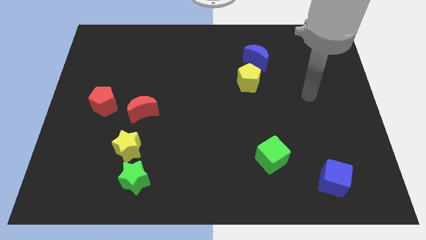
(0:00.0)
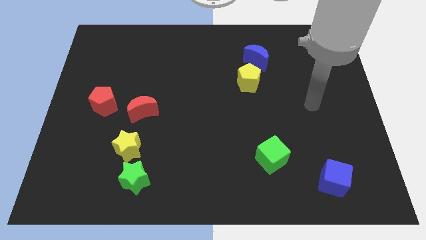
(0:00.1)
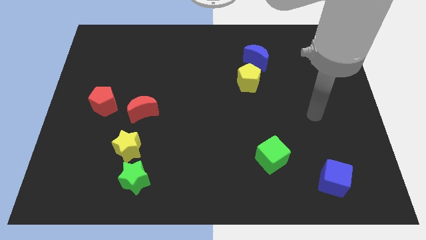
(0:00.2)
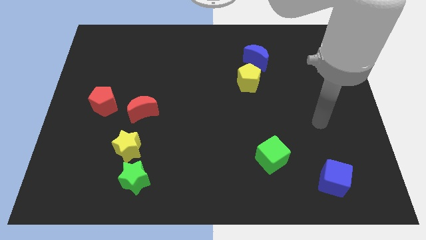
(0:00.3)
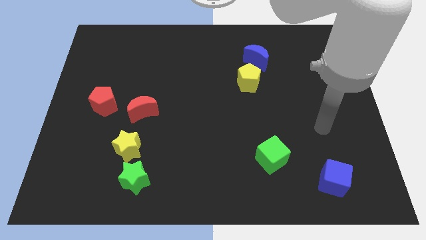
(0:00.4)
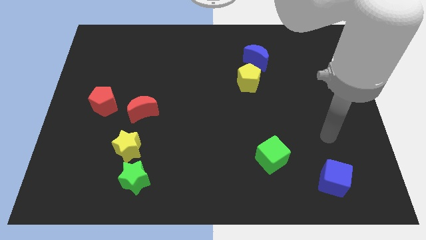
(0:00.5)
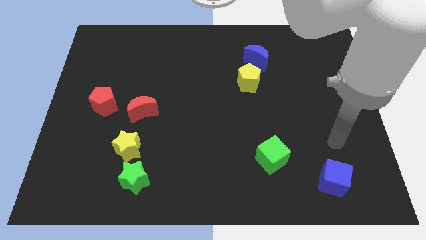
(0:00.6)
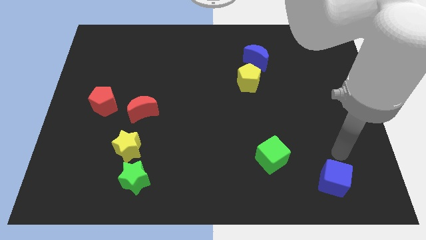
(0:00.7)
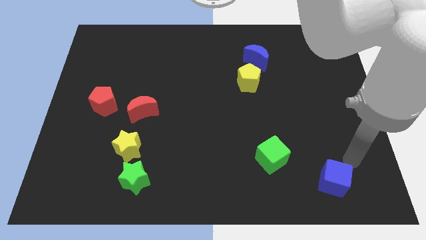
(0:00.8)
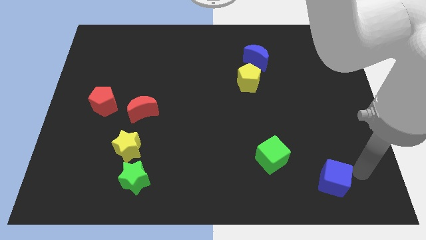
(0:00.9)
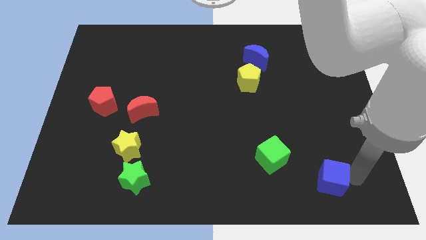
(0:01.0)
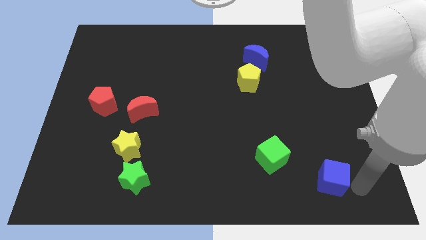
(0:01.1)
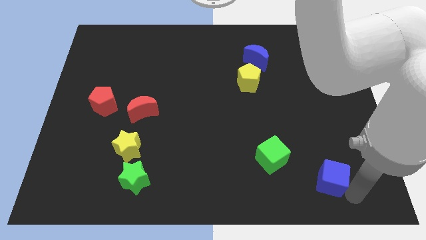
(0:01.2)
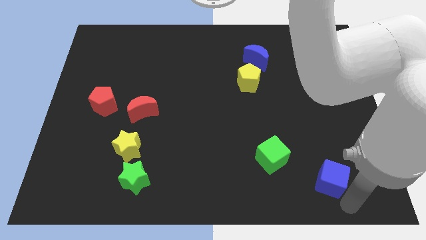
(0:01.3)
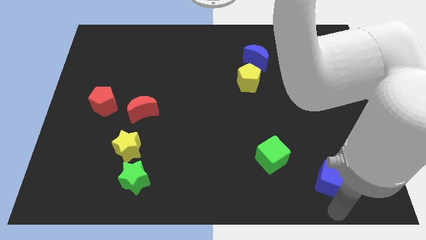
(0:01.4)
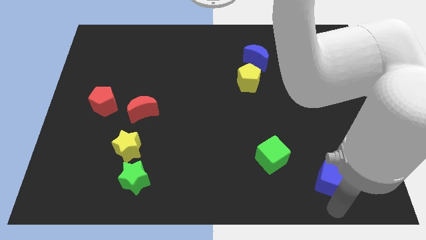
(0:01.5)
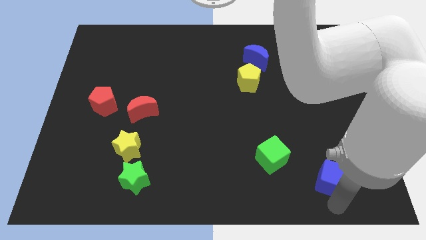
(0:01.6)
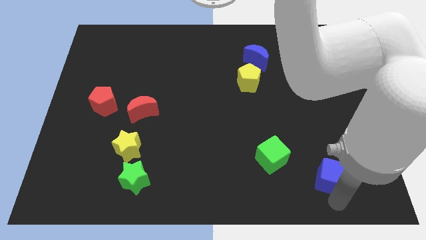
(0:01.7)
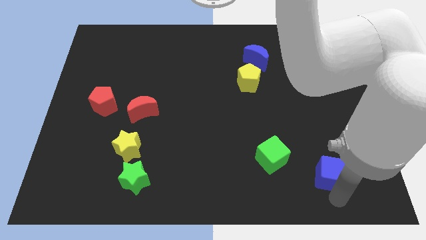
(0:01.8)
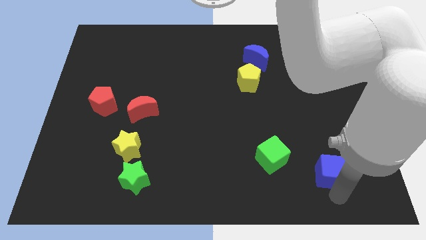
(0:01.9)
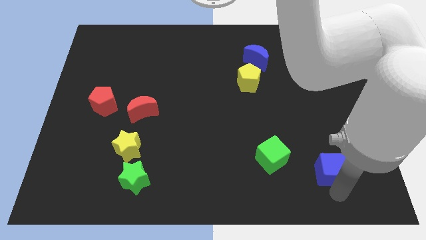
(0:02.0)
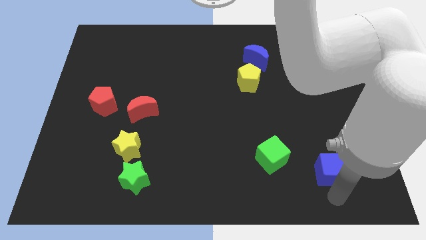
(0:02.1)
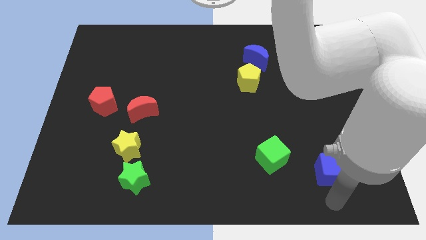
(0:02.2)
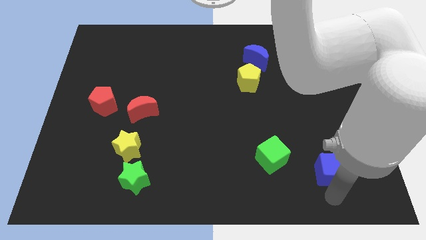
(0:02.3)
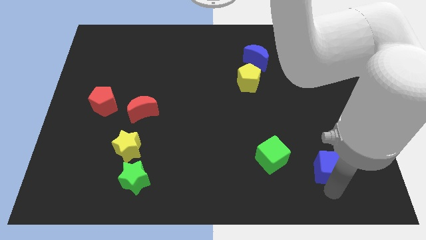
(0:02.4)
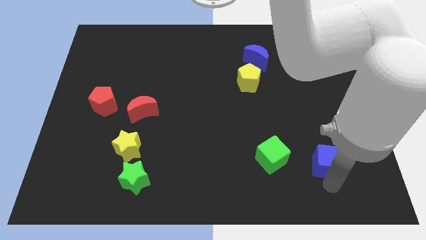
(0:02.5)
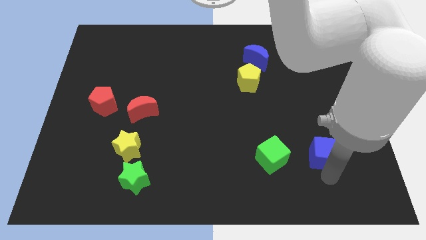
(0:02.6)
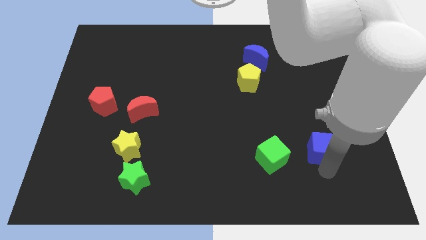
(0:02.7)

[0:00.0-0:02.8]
slide the blue cube up a little

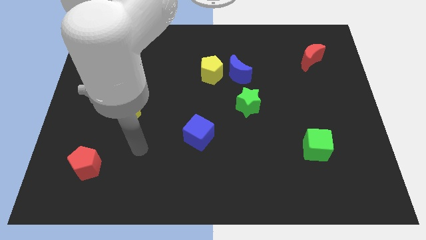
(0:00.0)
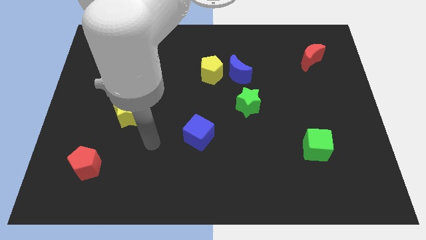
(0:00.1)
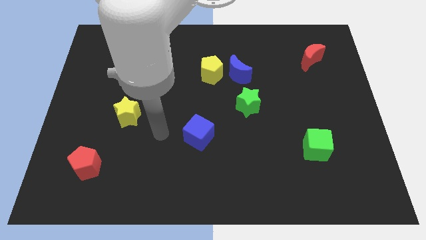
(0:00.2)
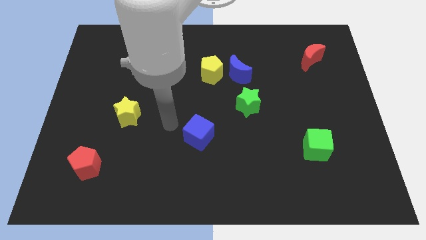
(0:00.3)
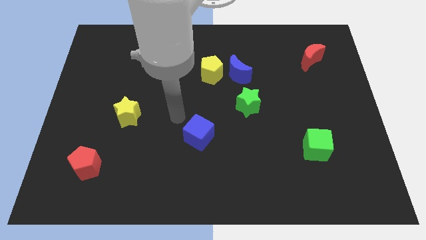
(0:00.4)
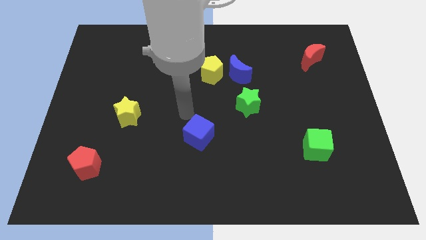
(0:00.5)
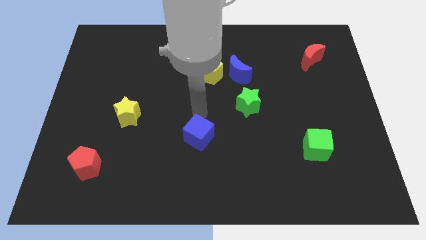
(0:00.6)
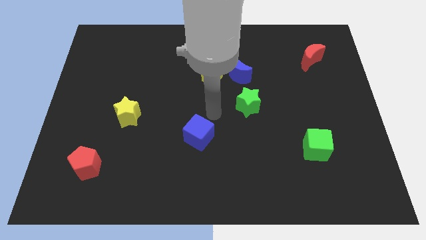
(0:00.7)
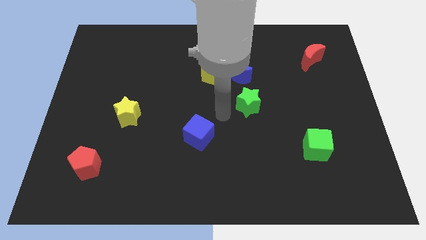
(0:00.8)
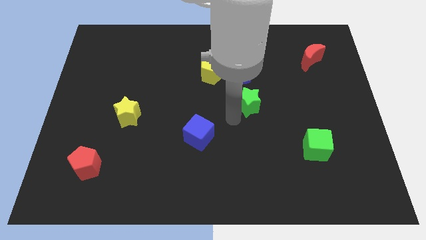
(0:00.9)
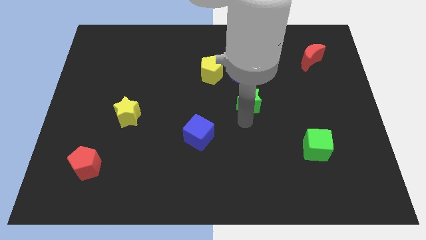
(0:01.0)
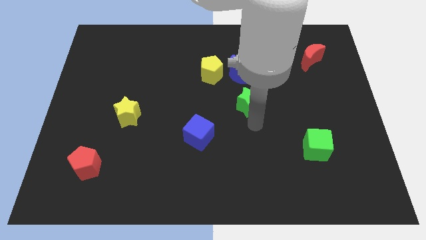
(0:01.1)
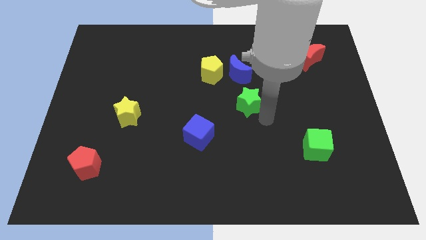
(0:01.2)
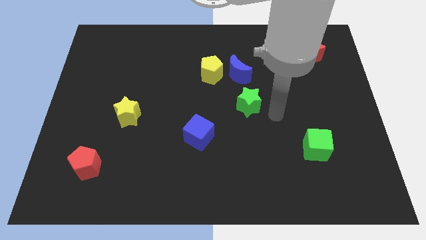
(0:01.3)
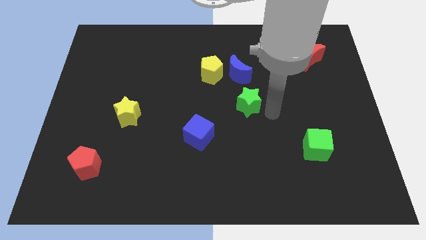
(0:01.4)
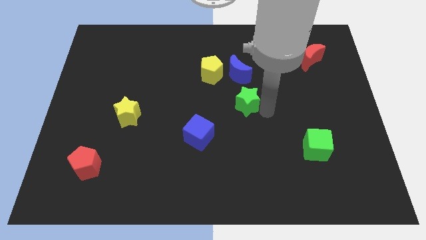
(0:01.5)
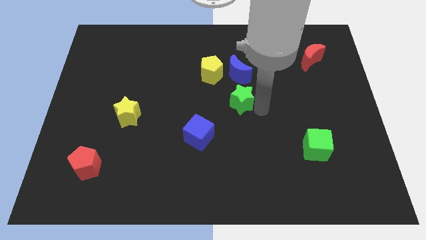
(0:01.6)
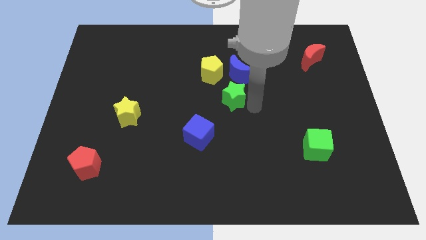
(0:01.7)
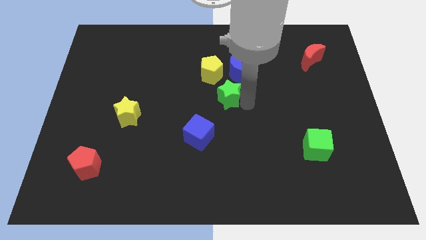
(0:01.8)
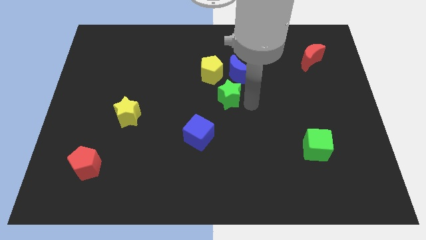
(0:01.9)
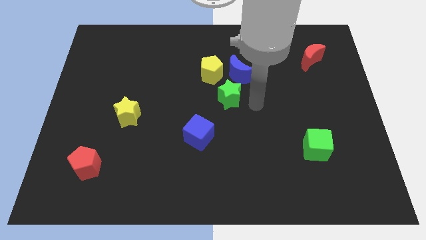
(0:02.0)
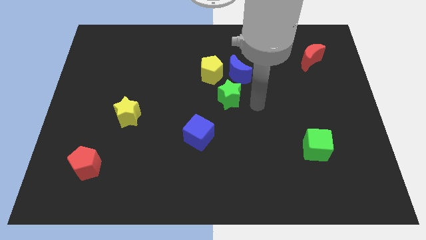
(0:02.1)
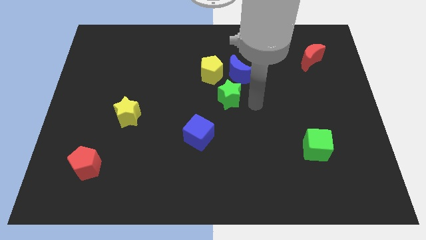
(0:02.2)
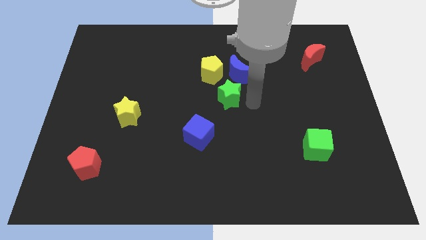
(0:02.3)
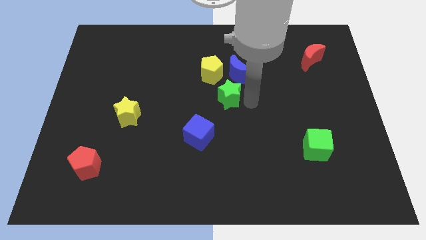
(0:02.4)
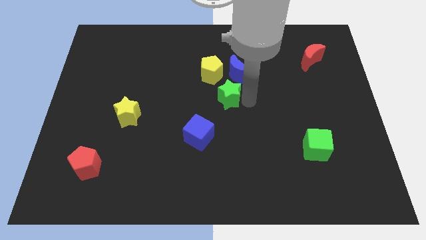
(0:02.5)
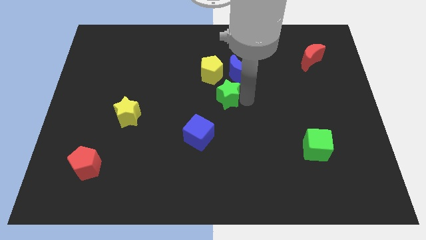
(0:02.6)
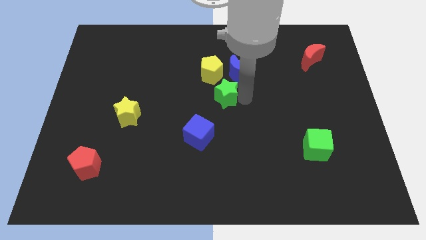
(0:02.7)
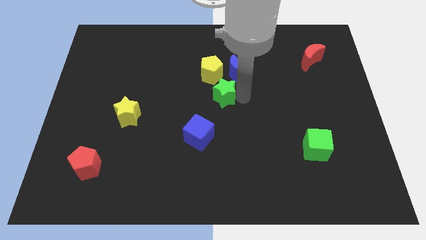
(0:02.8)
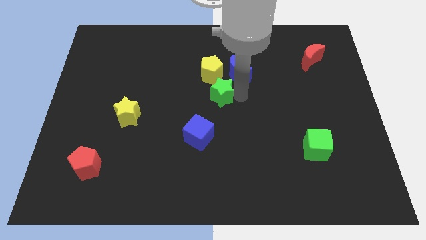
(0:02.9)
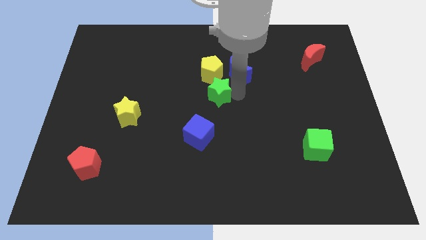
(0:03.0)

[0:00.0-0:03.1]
slide the green star somewhat upwards and then left

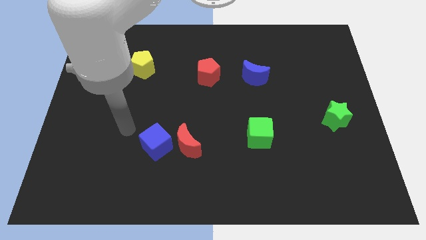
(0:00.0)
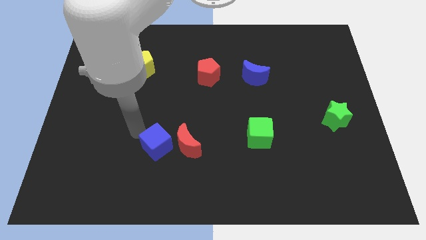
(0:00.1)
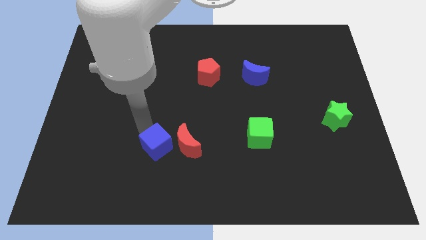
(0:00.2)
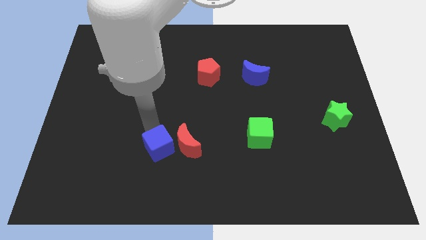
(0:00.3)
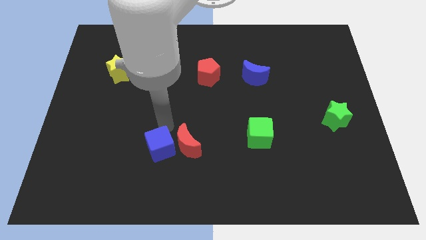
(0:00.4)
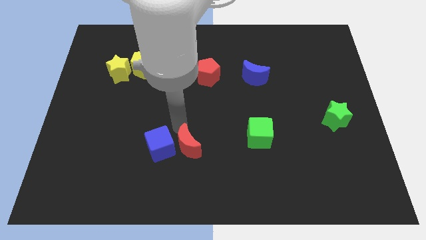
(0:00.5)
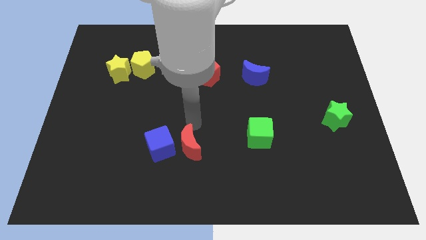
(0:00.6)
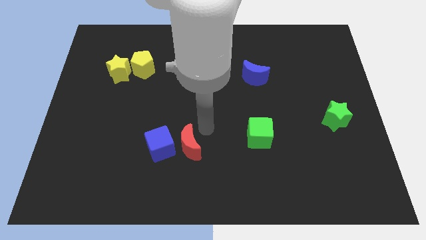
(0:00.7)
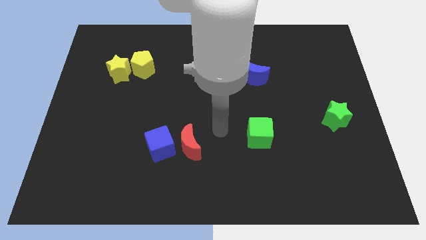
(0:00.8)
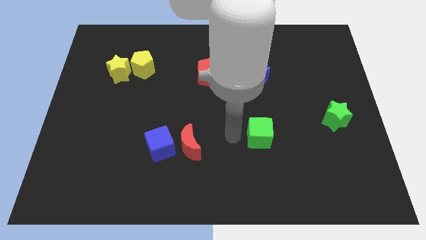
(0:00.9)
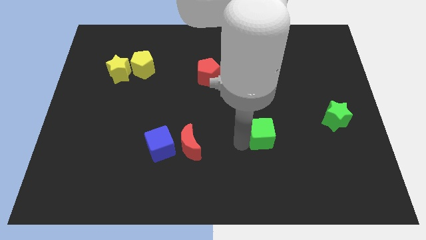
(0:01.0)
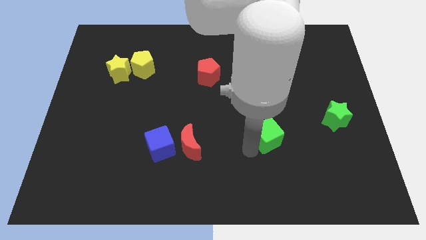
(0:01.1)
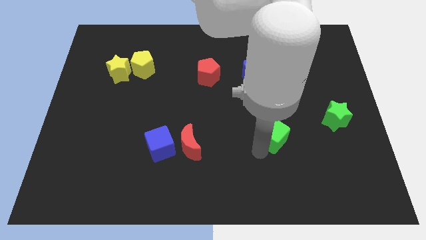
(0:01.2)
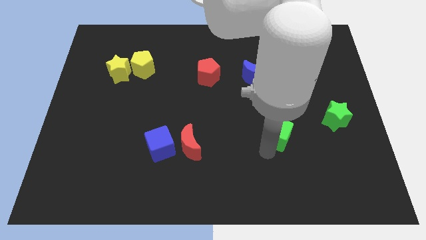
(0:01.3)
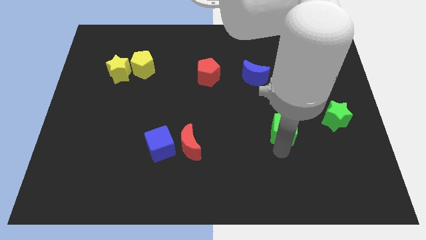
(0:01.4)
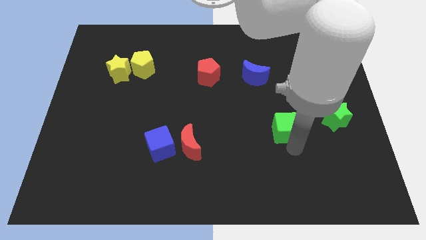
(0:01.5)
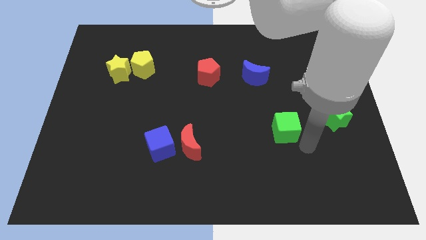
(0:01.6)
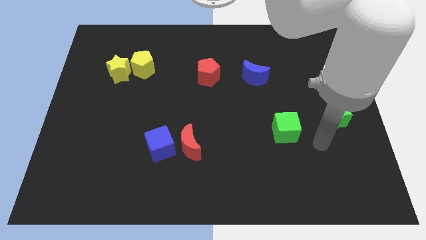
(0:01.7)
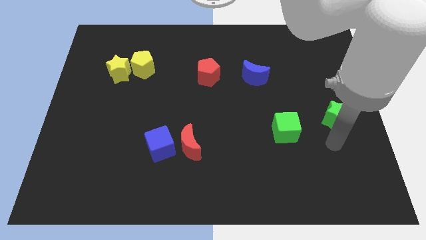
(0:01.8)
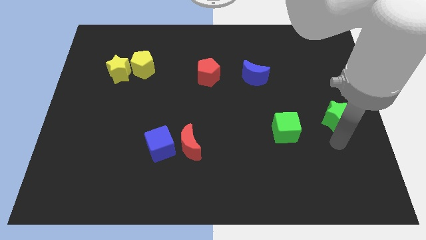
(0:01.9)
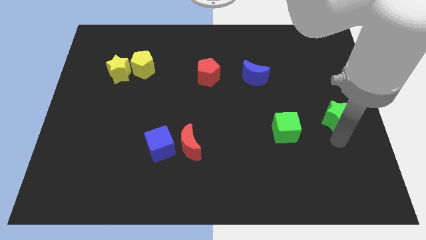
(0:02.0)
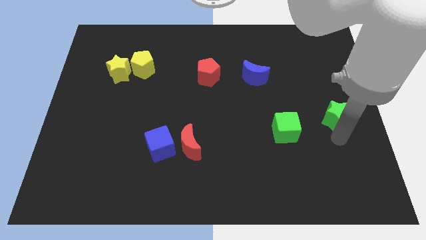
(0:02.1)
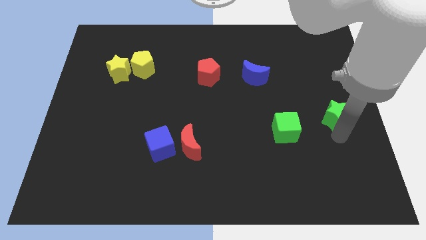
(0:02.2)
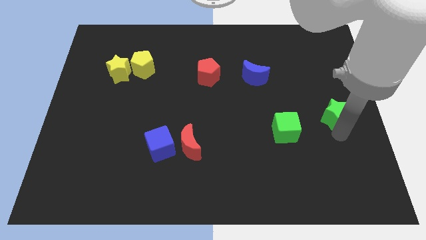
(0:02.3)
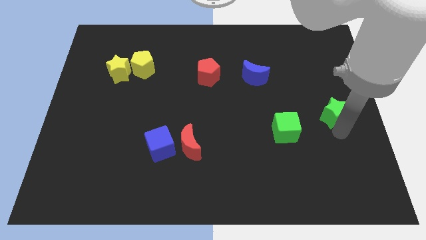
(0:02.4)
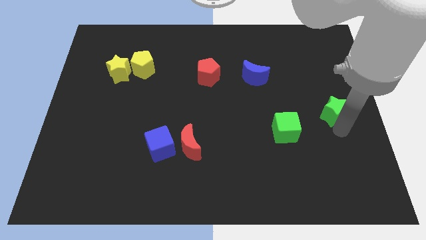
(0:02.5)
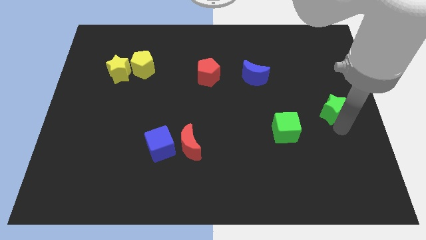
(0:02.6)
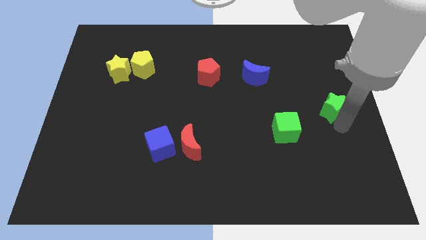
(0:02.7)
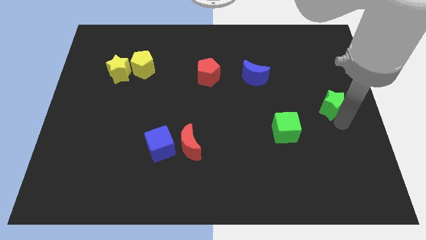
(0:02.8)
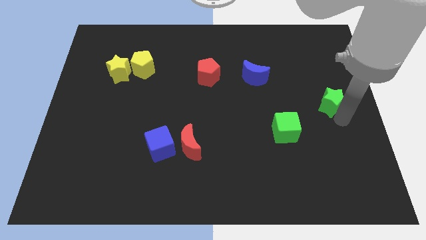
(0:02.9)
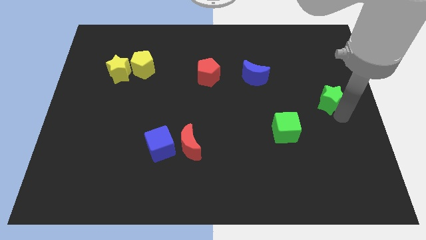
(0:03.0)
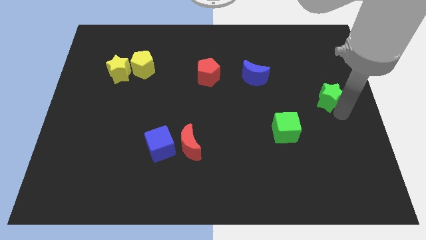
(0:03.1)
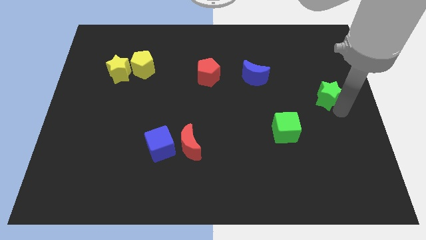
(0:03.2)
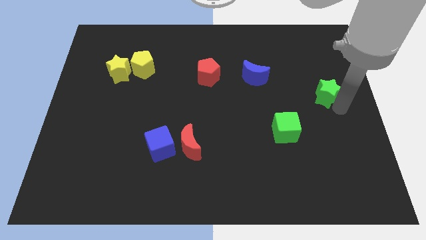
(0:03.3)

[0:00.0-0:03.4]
push the green star a bit upwards
